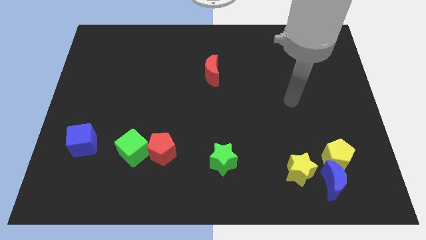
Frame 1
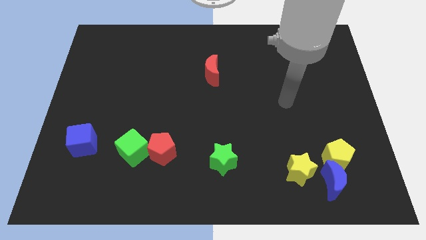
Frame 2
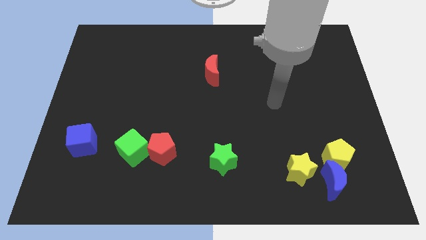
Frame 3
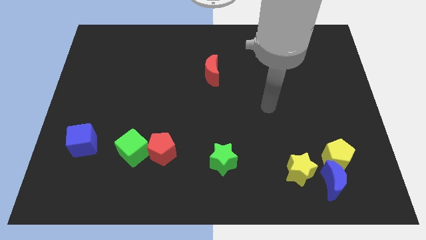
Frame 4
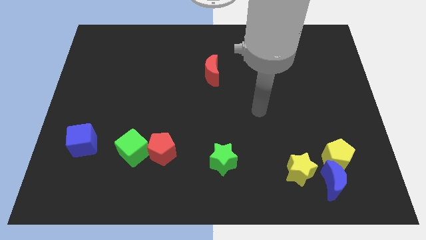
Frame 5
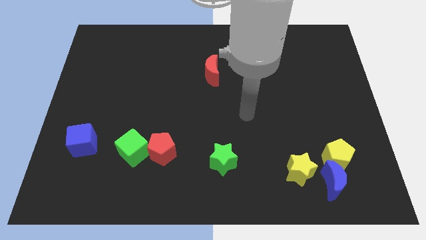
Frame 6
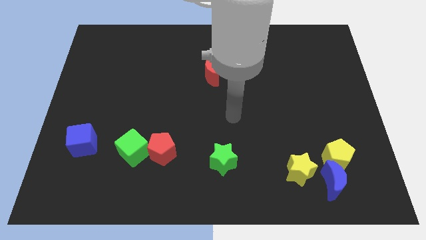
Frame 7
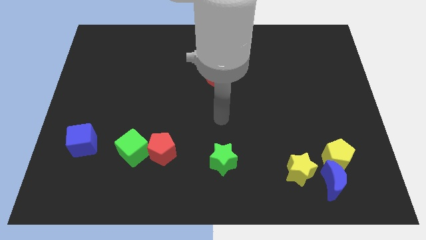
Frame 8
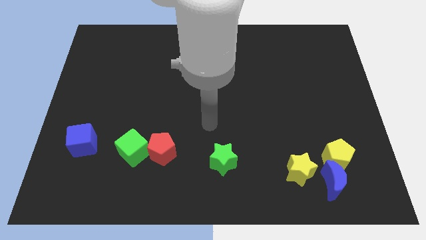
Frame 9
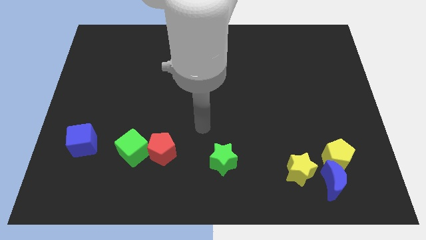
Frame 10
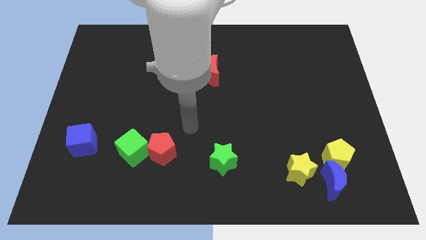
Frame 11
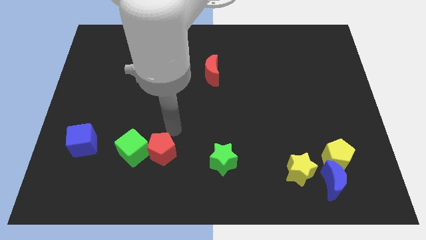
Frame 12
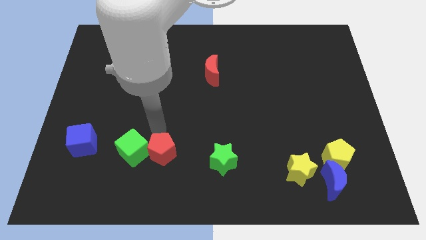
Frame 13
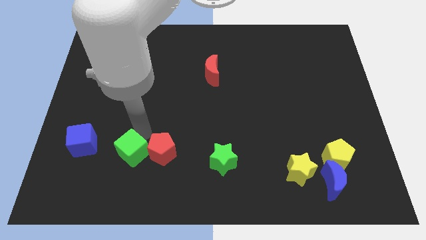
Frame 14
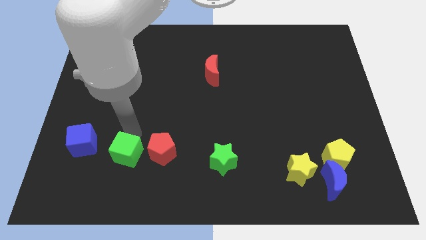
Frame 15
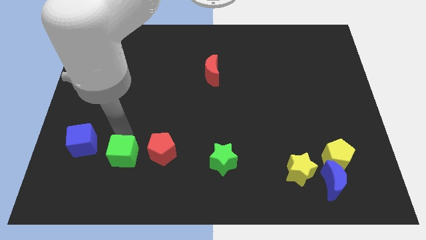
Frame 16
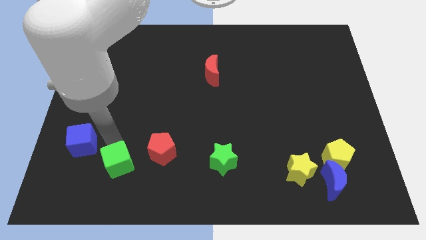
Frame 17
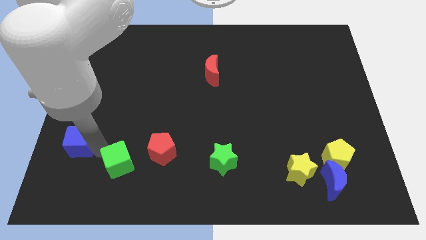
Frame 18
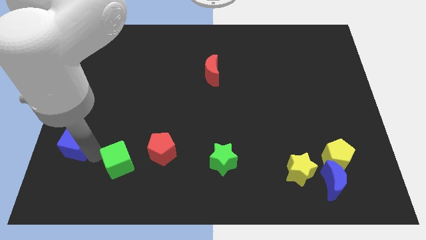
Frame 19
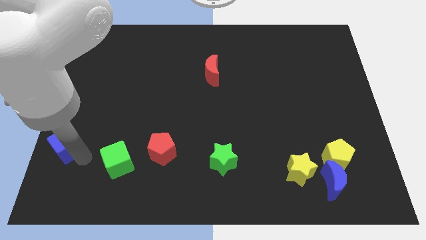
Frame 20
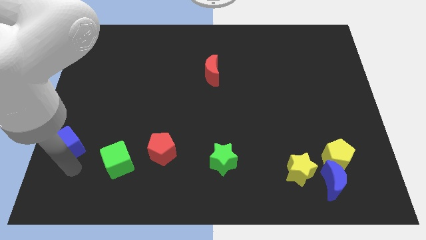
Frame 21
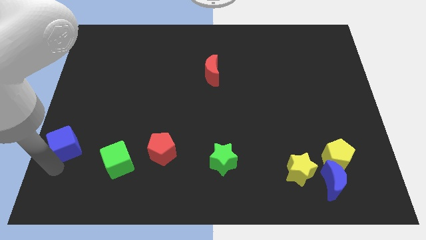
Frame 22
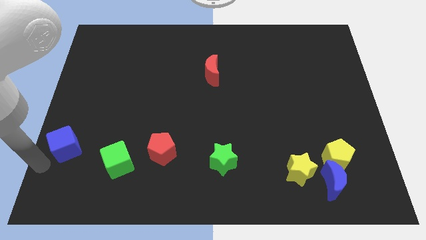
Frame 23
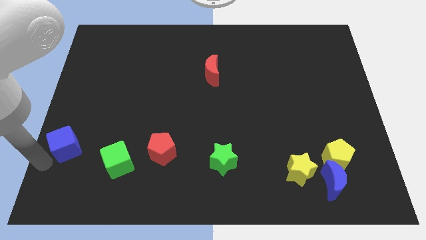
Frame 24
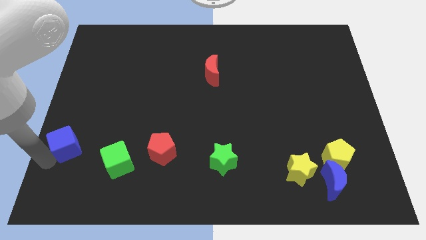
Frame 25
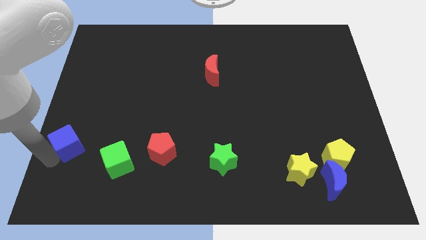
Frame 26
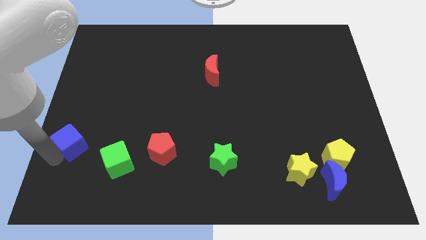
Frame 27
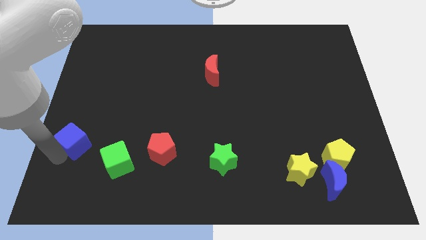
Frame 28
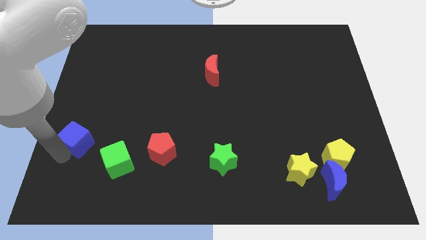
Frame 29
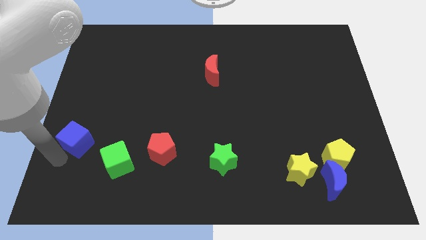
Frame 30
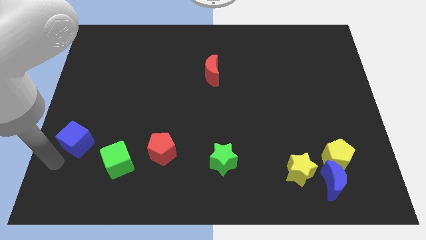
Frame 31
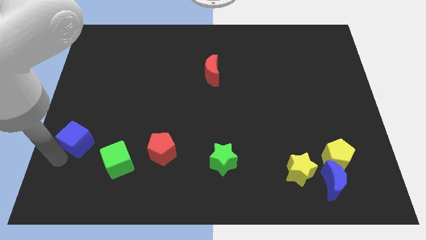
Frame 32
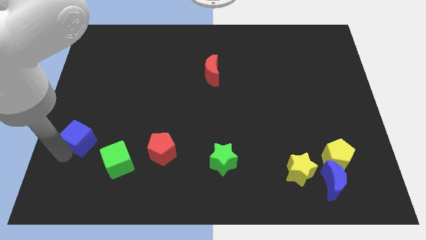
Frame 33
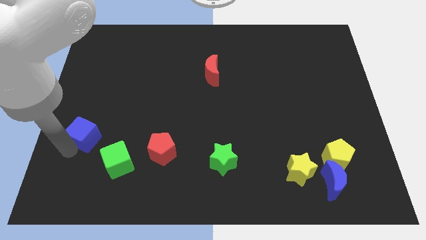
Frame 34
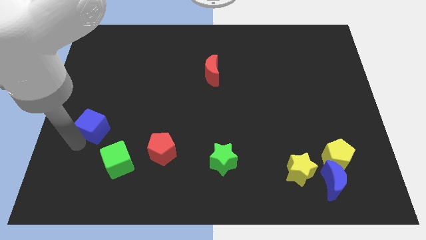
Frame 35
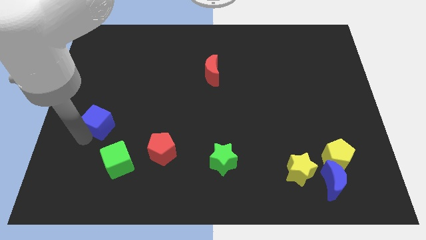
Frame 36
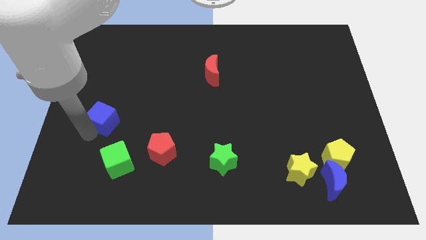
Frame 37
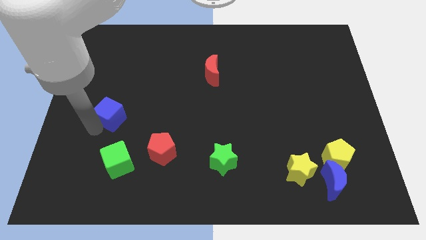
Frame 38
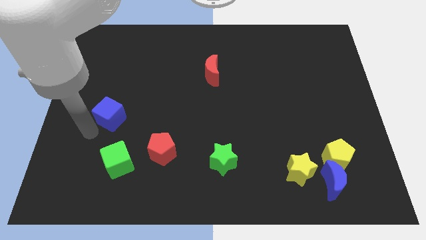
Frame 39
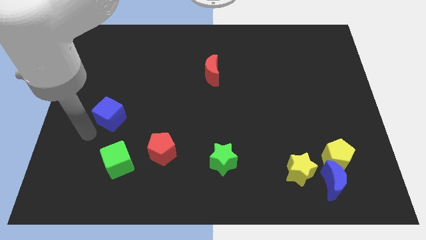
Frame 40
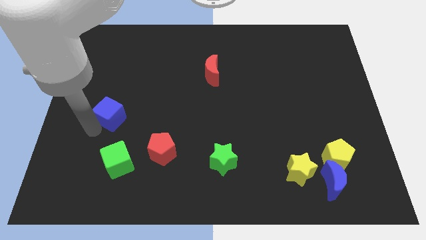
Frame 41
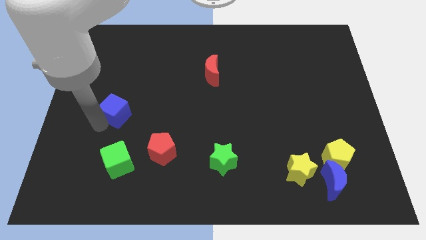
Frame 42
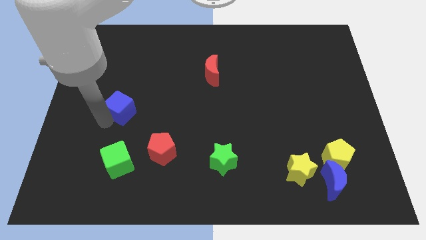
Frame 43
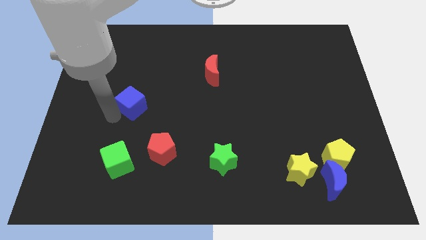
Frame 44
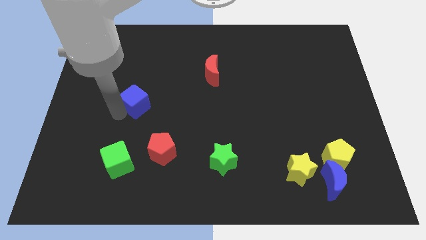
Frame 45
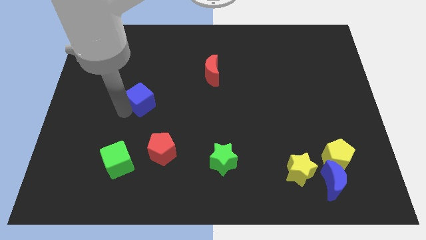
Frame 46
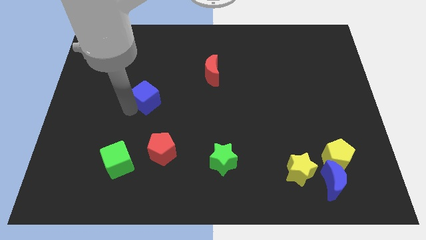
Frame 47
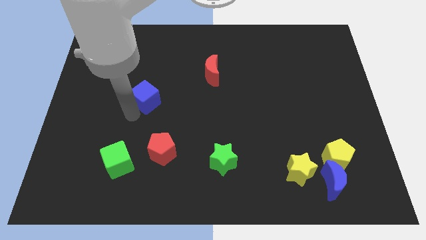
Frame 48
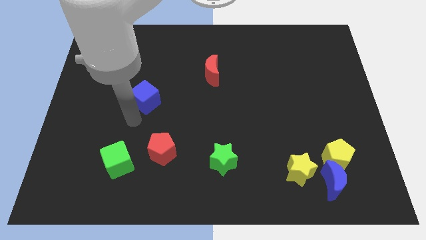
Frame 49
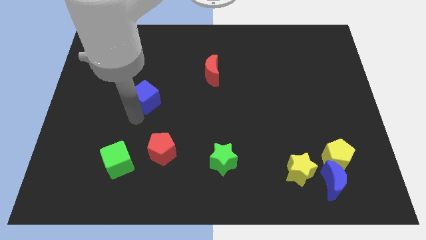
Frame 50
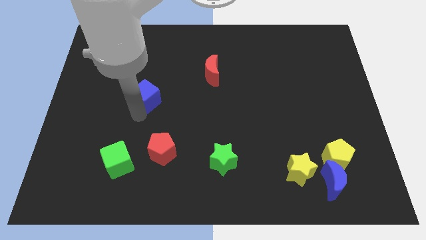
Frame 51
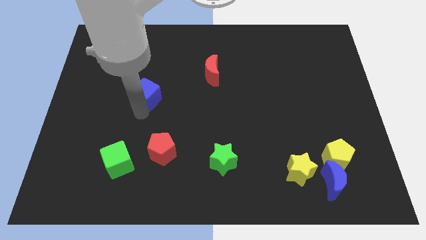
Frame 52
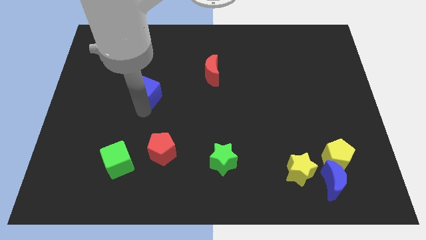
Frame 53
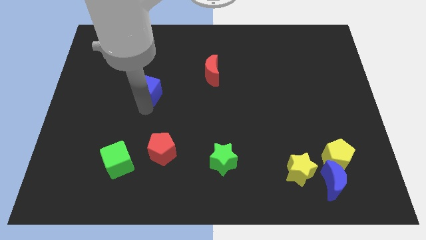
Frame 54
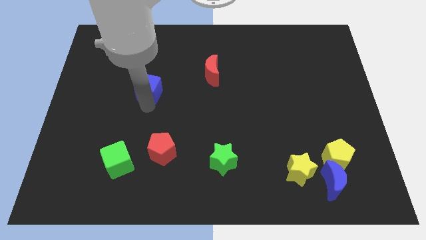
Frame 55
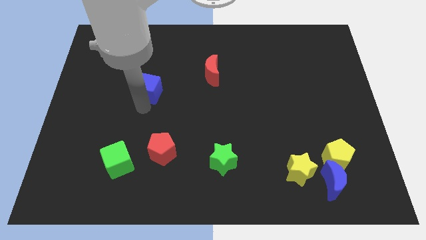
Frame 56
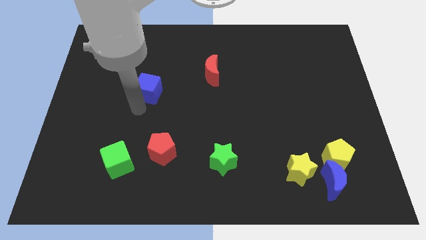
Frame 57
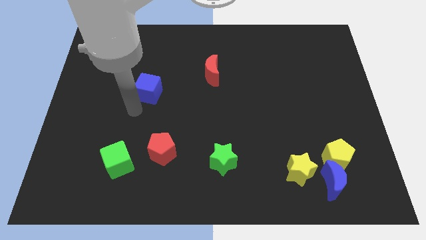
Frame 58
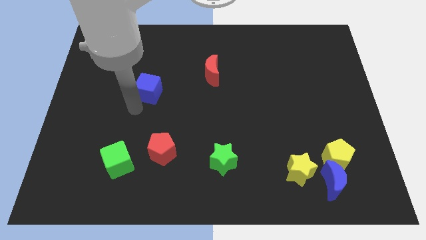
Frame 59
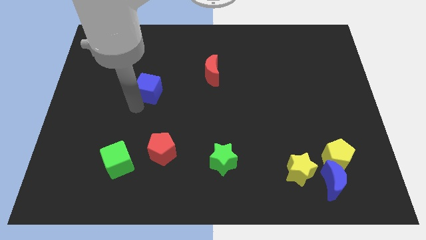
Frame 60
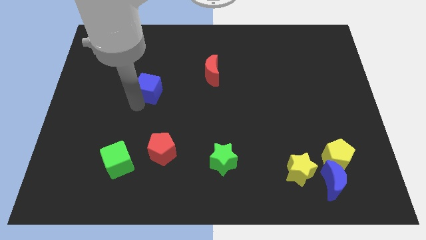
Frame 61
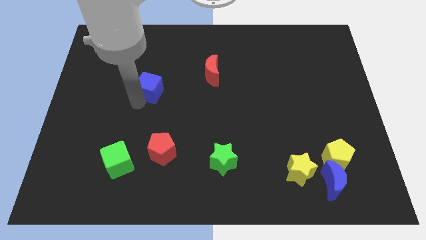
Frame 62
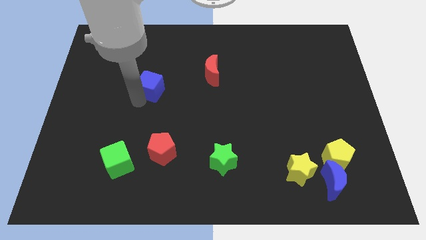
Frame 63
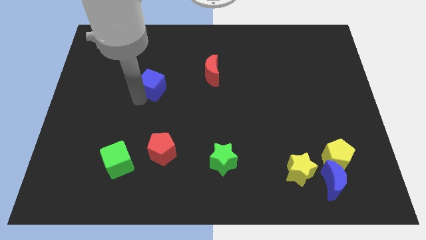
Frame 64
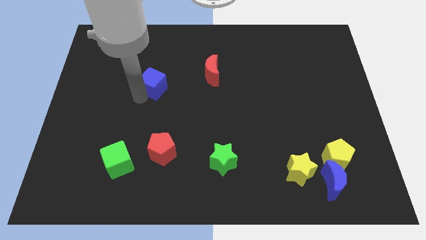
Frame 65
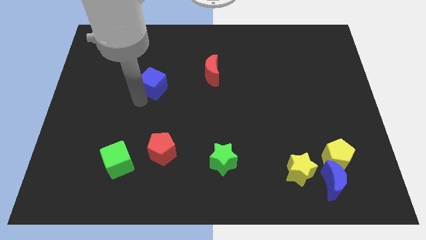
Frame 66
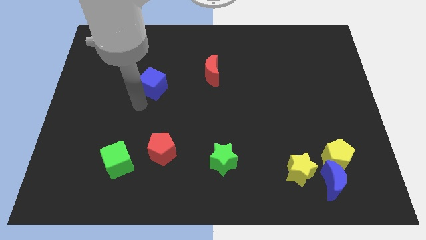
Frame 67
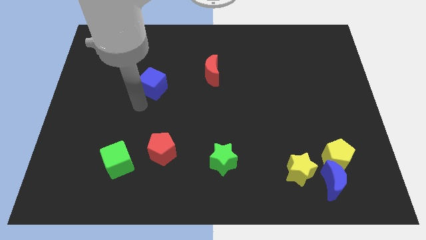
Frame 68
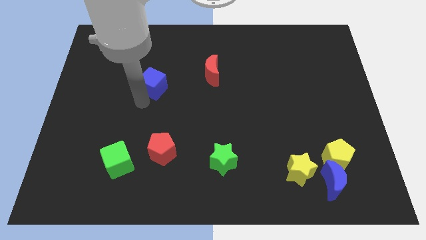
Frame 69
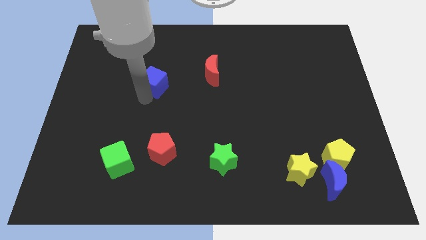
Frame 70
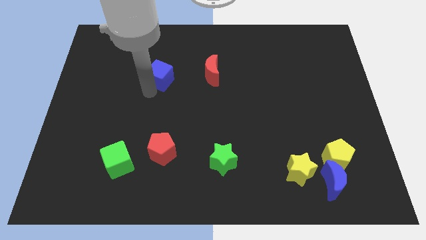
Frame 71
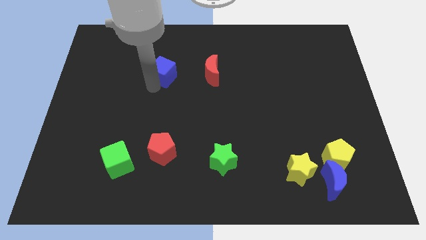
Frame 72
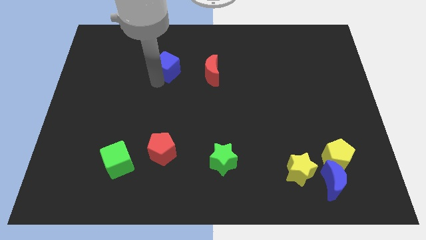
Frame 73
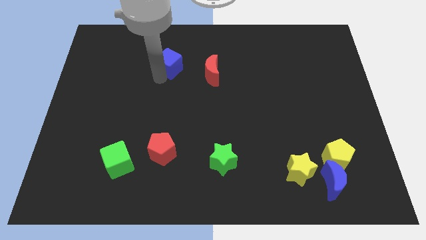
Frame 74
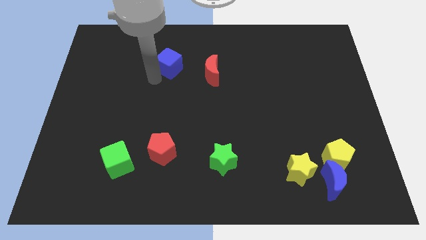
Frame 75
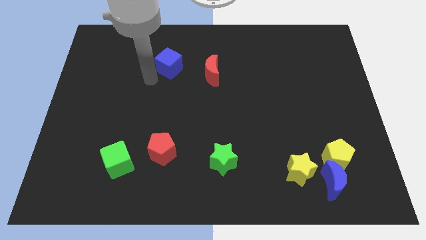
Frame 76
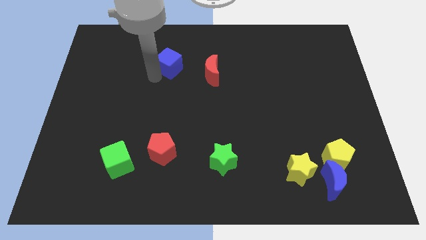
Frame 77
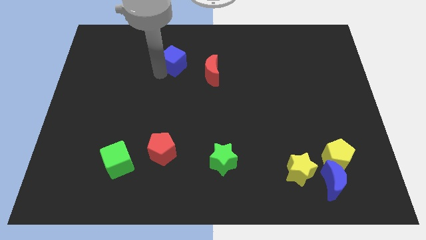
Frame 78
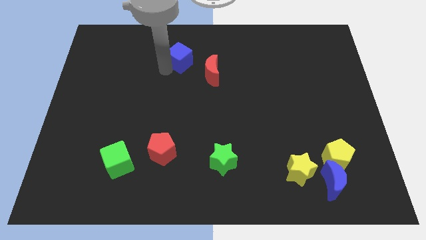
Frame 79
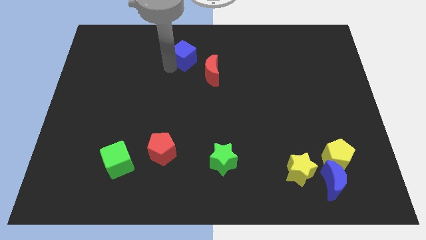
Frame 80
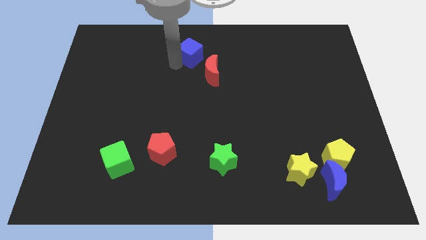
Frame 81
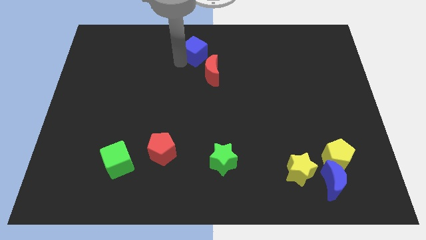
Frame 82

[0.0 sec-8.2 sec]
move the blue cube to the top side
